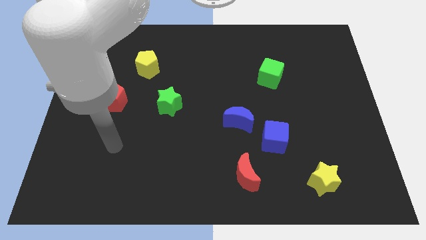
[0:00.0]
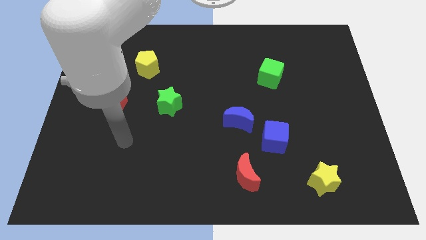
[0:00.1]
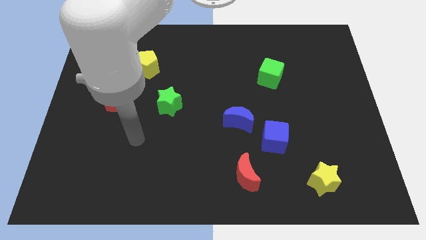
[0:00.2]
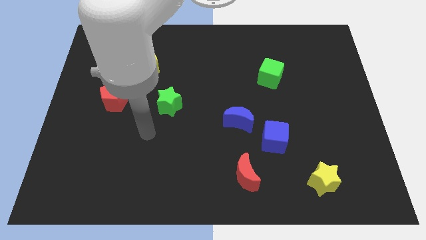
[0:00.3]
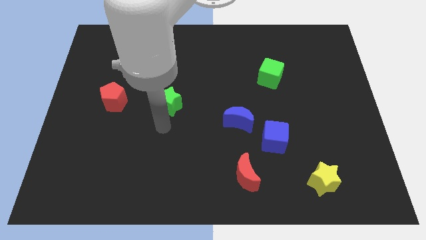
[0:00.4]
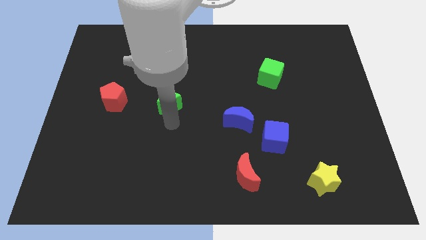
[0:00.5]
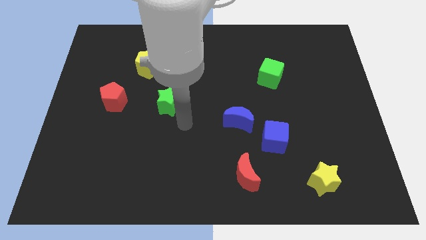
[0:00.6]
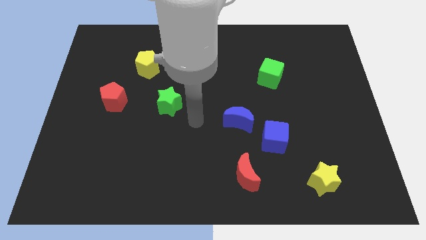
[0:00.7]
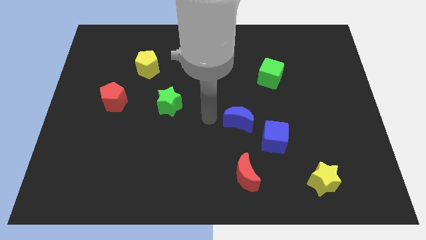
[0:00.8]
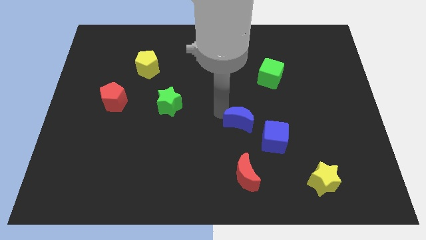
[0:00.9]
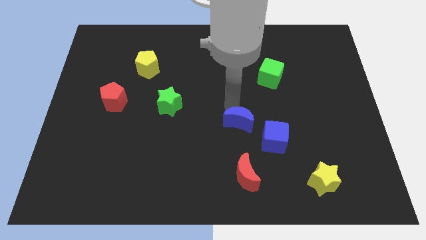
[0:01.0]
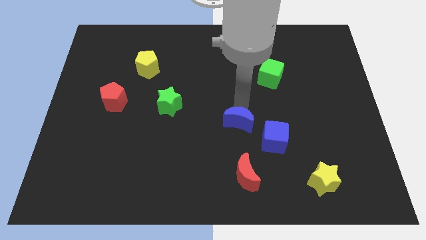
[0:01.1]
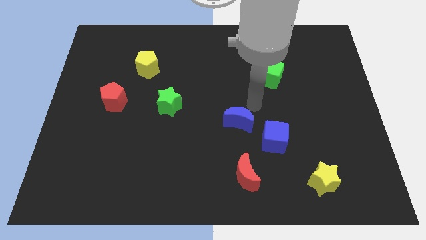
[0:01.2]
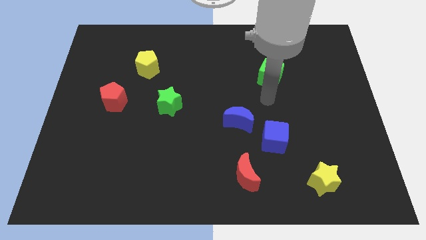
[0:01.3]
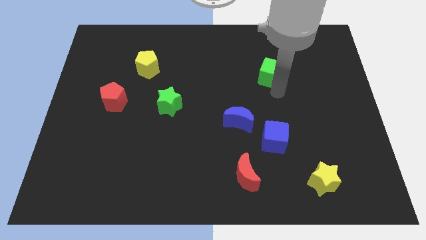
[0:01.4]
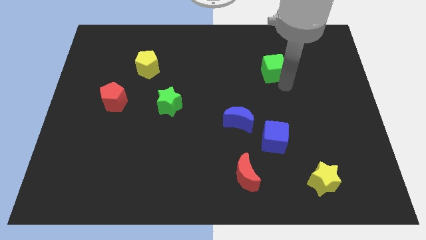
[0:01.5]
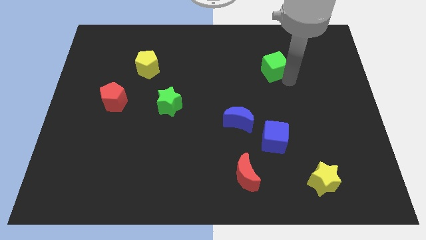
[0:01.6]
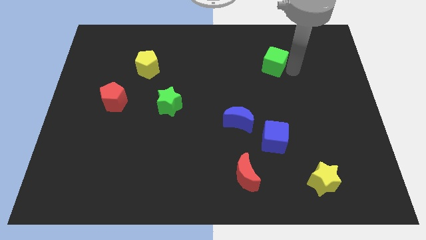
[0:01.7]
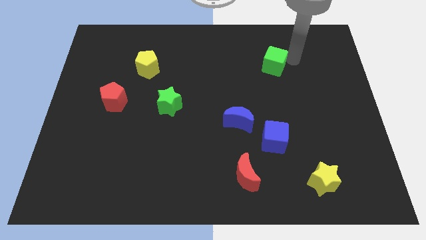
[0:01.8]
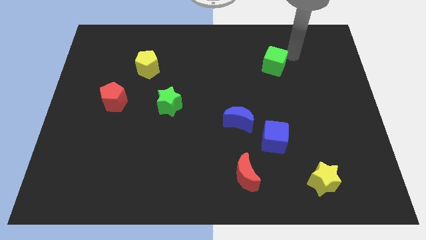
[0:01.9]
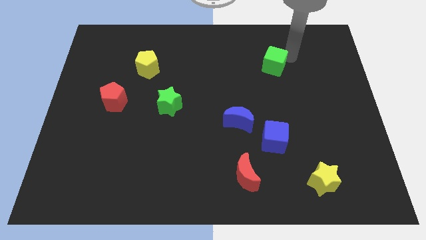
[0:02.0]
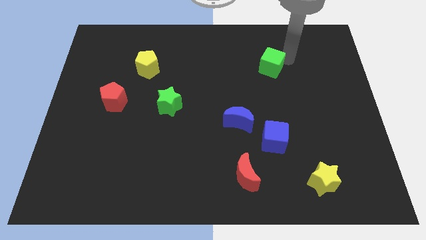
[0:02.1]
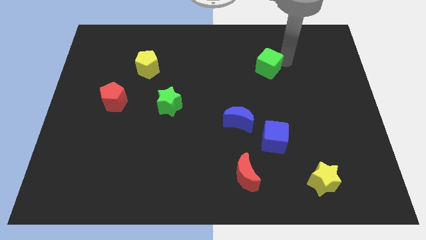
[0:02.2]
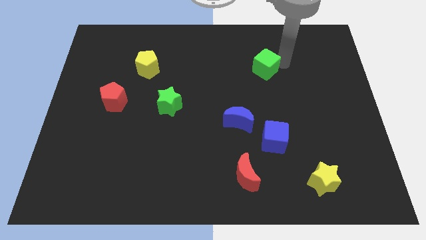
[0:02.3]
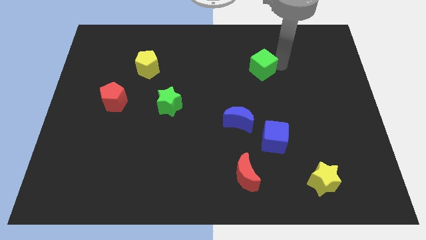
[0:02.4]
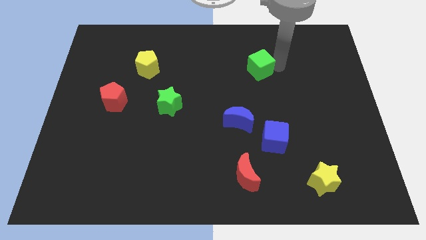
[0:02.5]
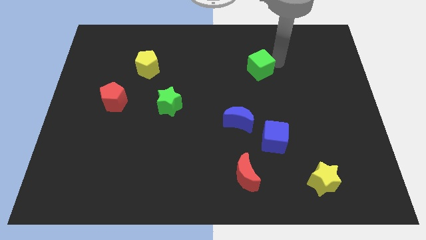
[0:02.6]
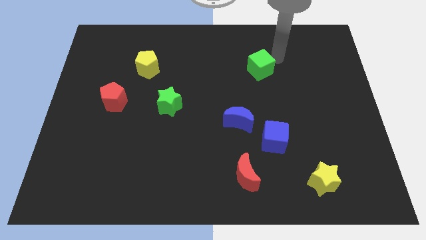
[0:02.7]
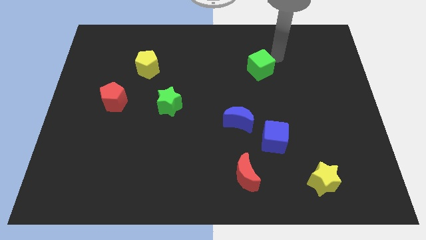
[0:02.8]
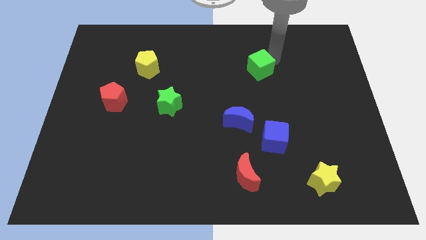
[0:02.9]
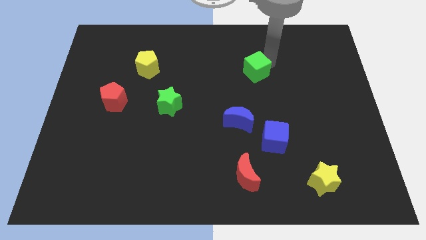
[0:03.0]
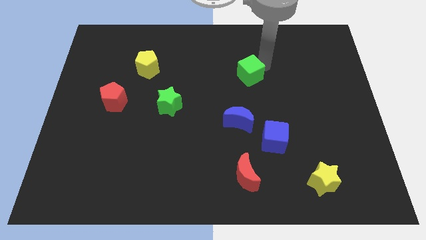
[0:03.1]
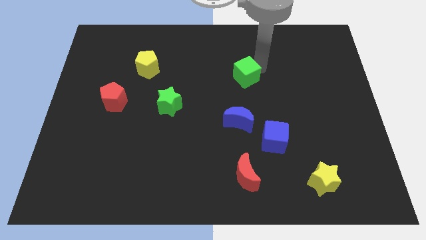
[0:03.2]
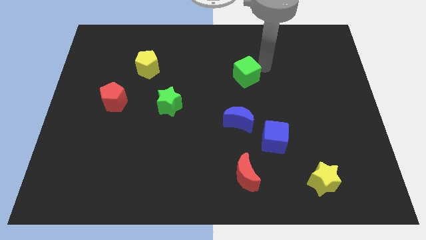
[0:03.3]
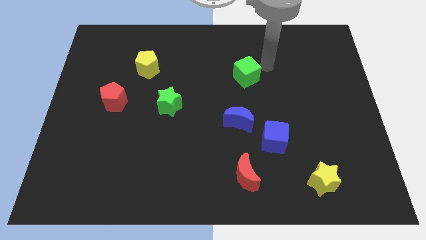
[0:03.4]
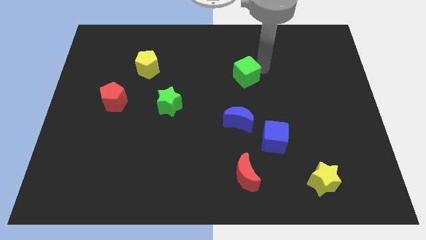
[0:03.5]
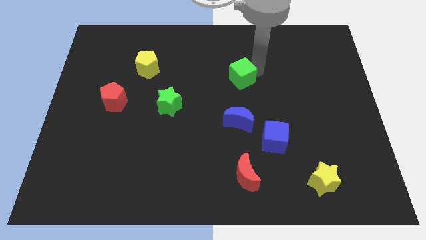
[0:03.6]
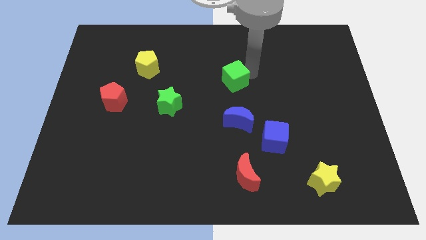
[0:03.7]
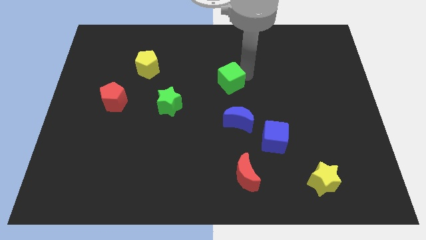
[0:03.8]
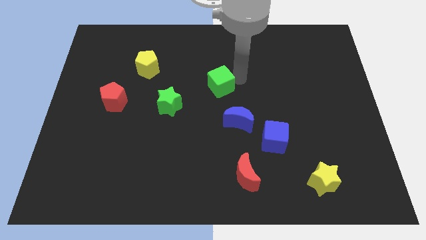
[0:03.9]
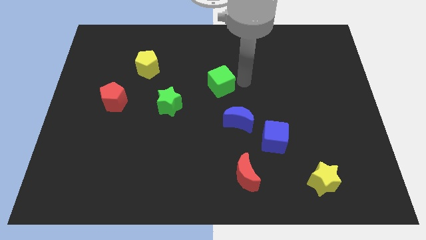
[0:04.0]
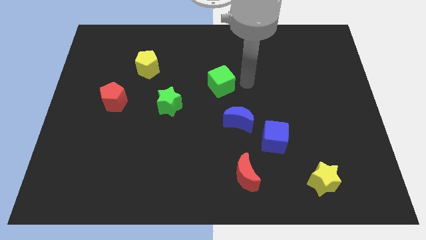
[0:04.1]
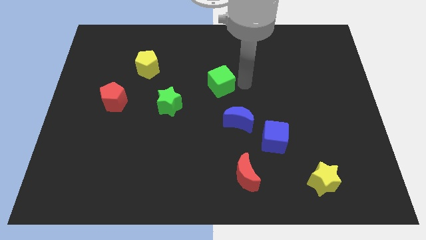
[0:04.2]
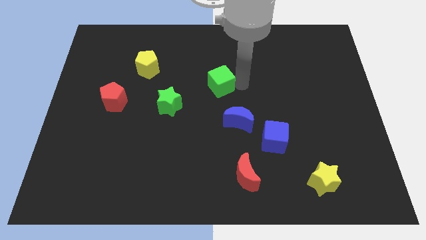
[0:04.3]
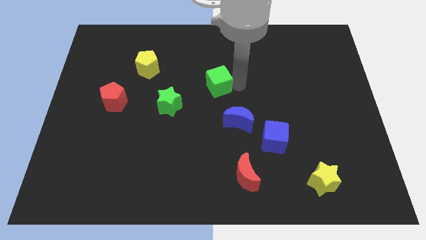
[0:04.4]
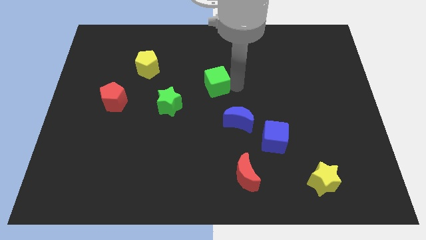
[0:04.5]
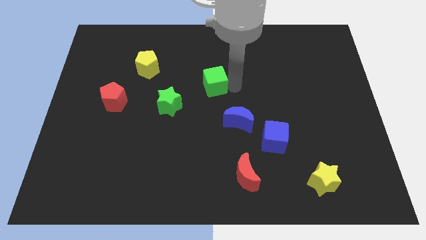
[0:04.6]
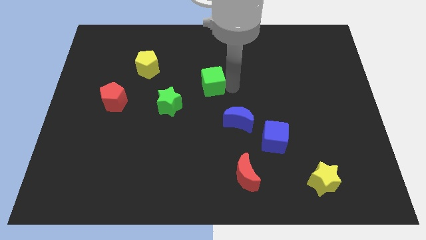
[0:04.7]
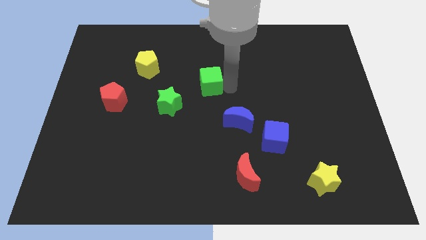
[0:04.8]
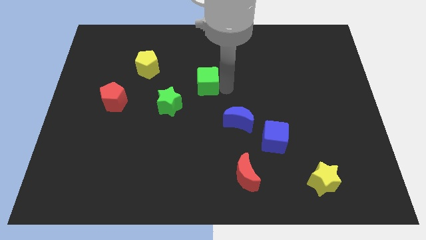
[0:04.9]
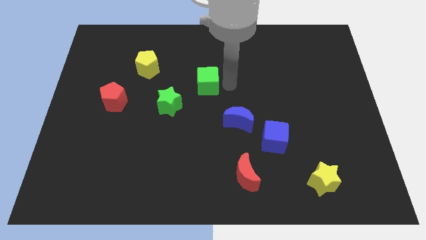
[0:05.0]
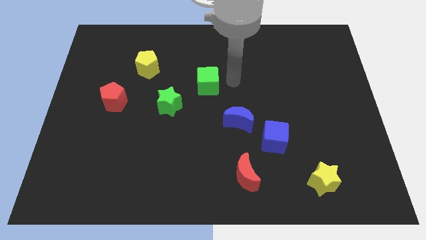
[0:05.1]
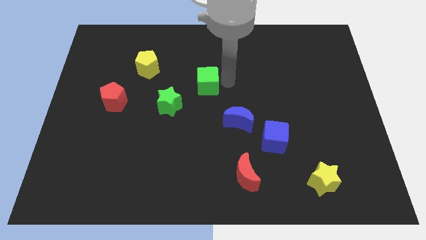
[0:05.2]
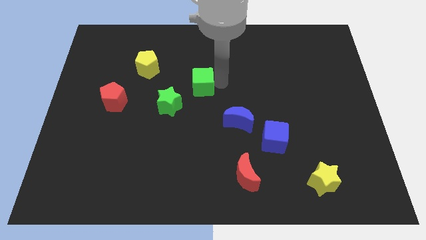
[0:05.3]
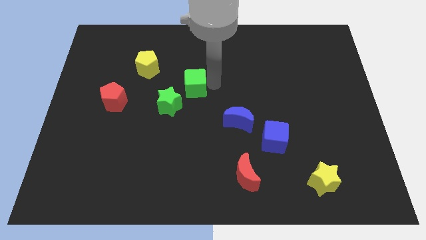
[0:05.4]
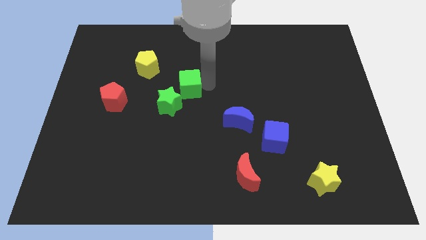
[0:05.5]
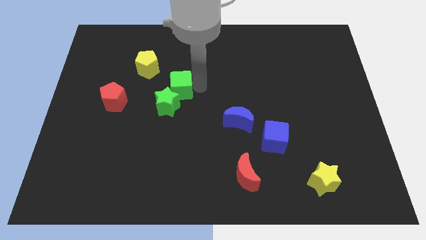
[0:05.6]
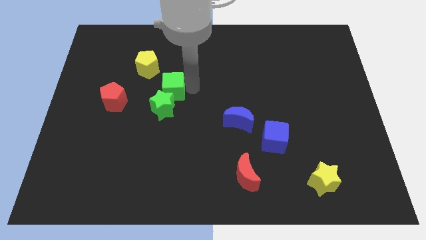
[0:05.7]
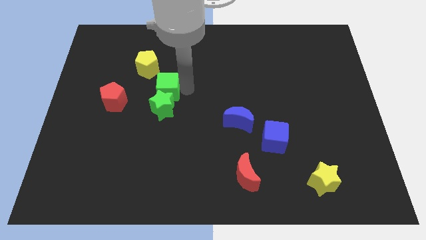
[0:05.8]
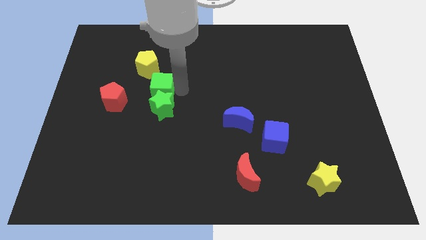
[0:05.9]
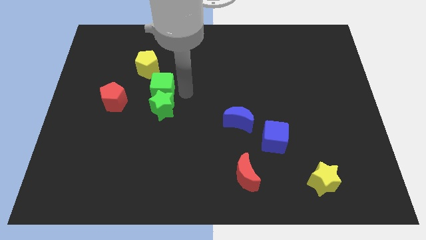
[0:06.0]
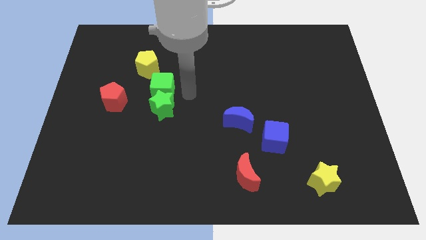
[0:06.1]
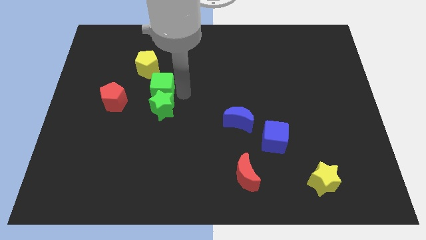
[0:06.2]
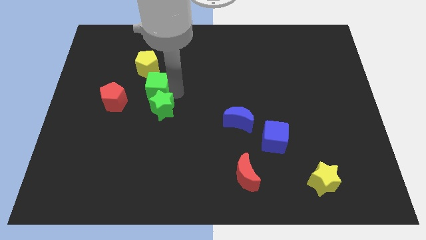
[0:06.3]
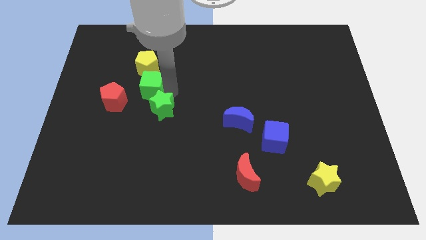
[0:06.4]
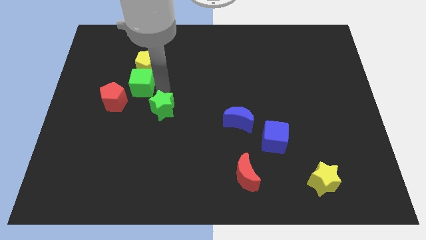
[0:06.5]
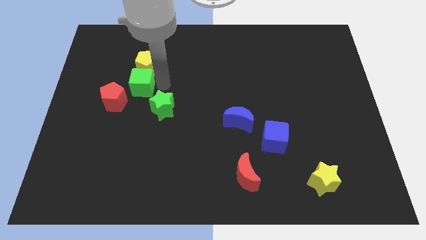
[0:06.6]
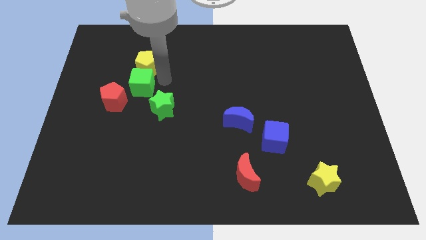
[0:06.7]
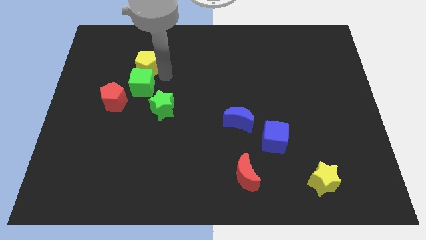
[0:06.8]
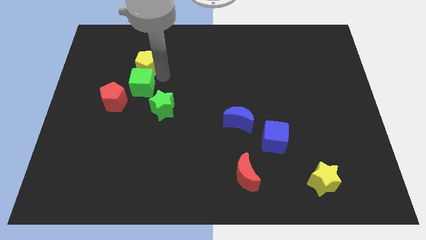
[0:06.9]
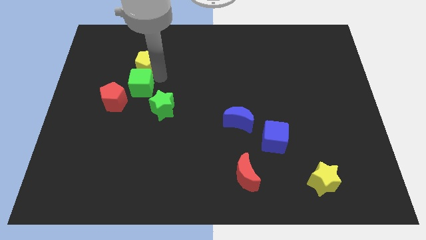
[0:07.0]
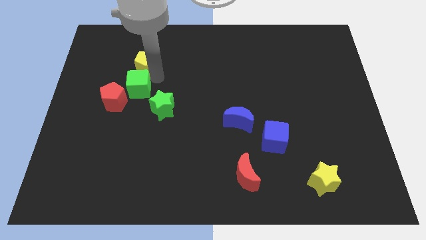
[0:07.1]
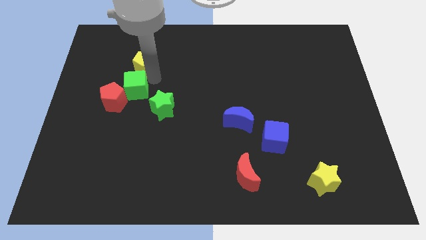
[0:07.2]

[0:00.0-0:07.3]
slide the green cube towards the red pentagon

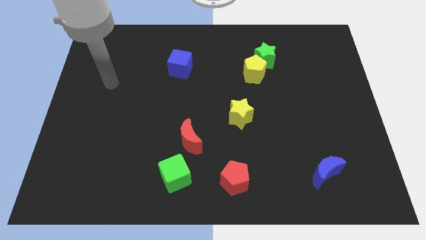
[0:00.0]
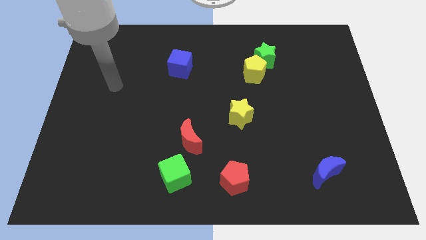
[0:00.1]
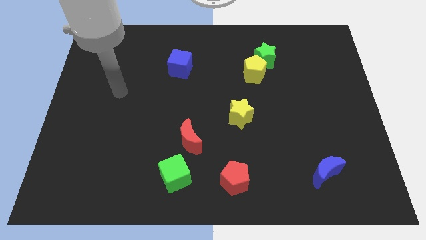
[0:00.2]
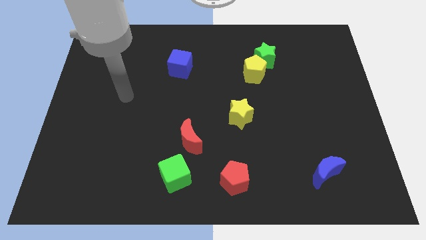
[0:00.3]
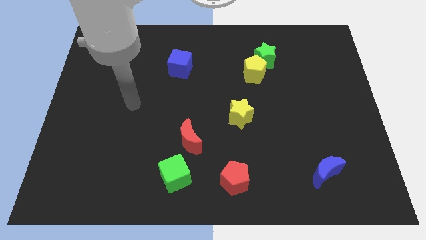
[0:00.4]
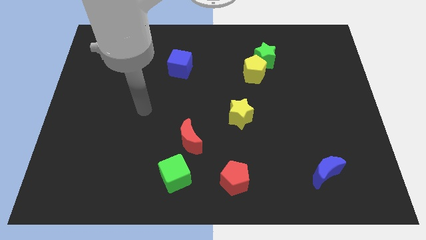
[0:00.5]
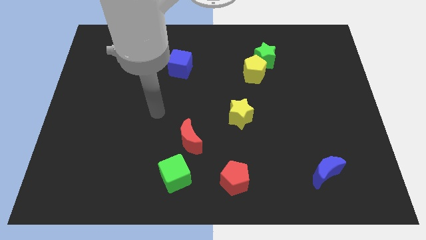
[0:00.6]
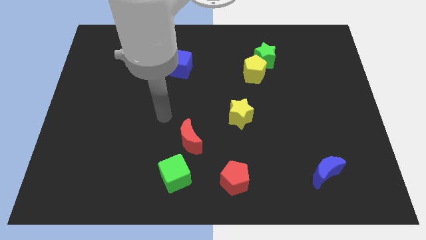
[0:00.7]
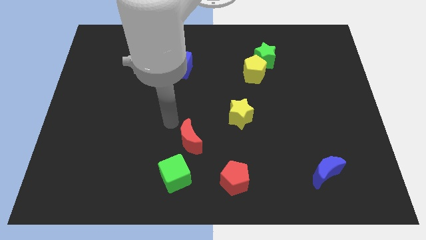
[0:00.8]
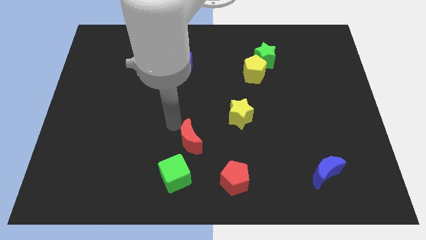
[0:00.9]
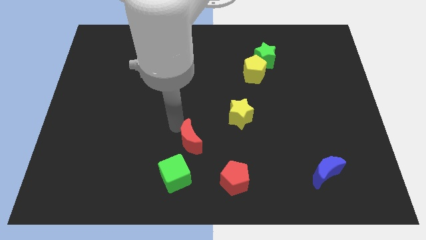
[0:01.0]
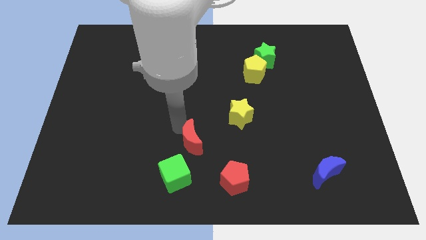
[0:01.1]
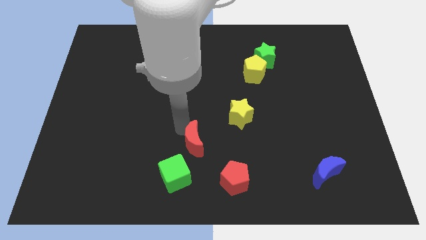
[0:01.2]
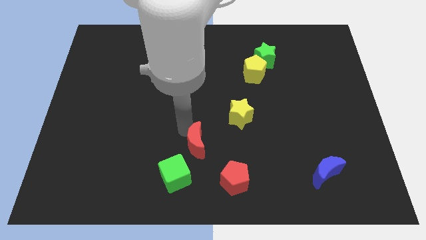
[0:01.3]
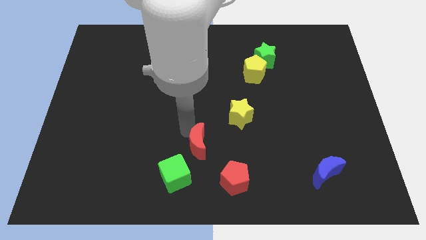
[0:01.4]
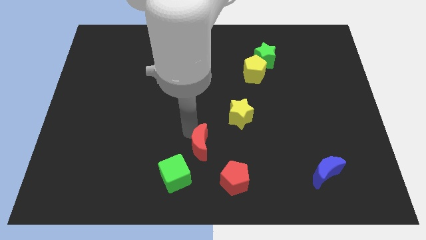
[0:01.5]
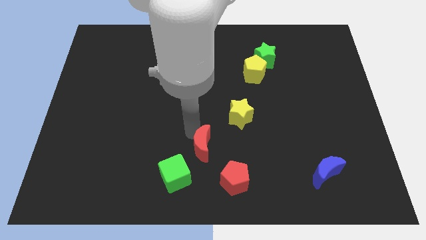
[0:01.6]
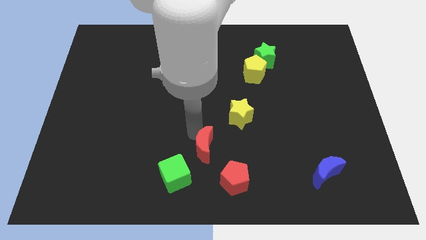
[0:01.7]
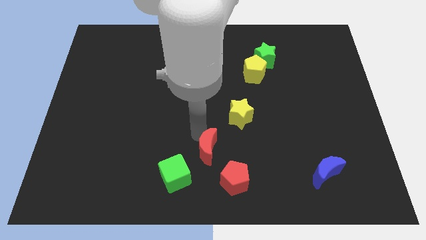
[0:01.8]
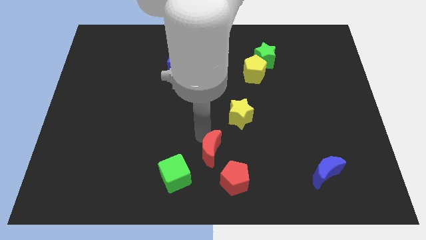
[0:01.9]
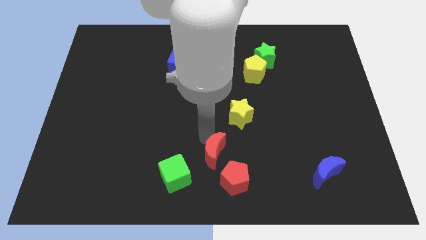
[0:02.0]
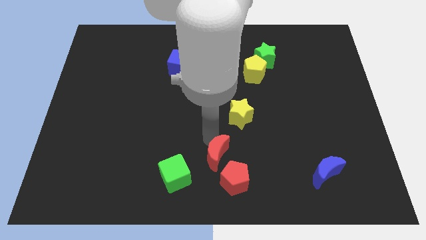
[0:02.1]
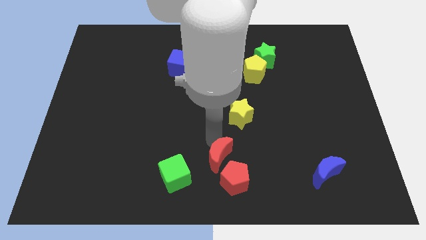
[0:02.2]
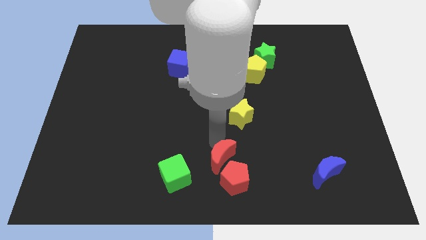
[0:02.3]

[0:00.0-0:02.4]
move the red moon next to the red pentagon
